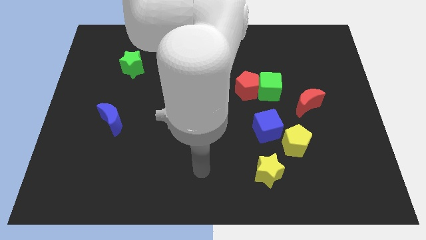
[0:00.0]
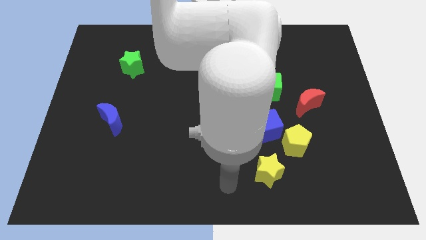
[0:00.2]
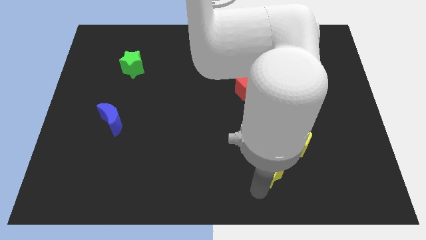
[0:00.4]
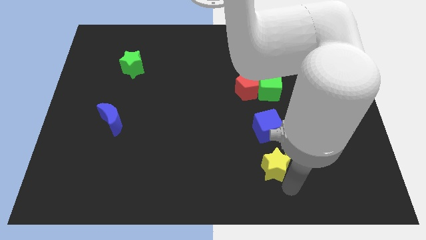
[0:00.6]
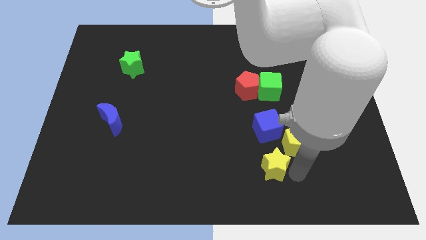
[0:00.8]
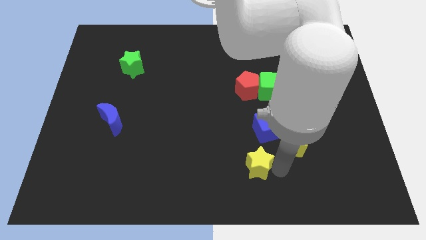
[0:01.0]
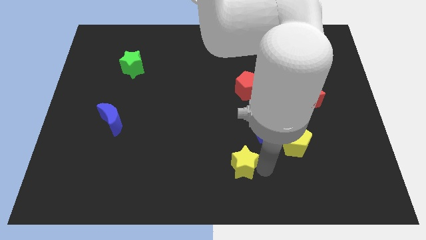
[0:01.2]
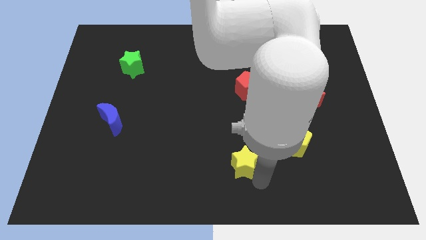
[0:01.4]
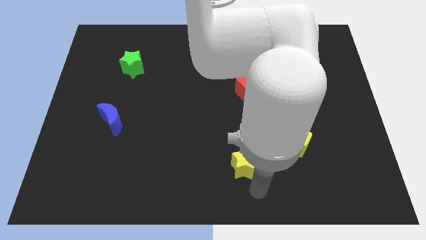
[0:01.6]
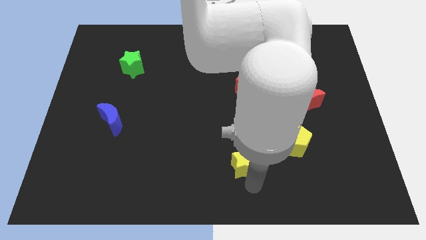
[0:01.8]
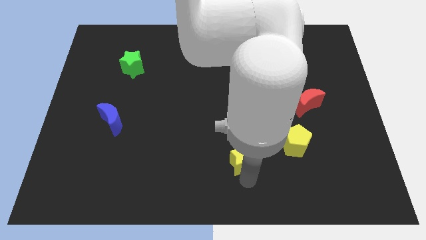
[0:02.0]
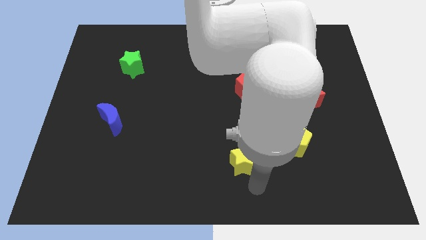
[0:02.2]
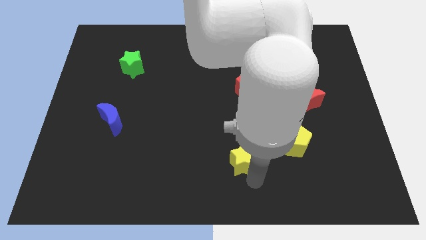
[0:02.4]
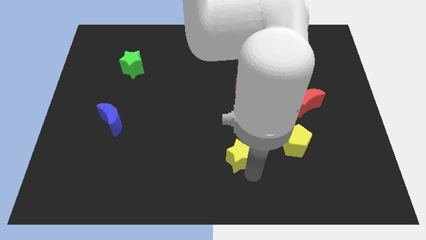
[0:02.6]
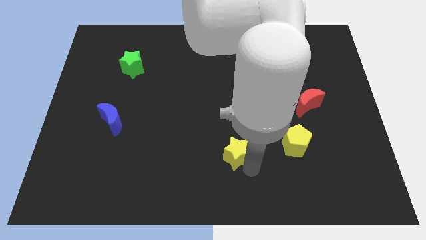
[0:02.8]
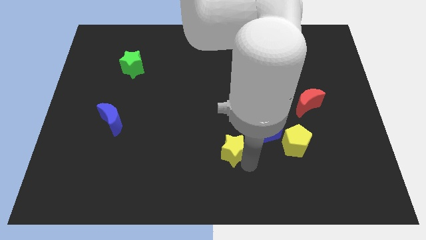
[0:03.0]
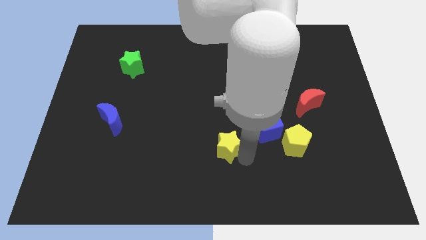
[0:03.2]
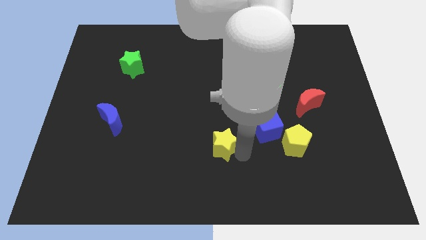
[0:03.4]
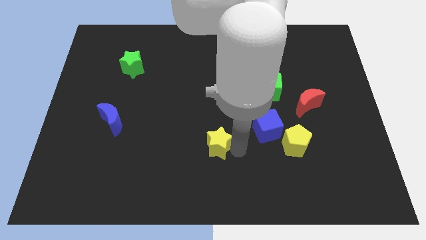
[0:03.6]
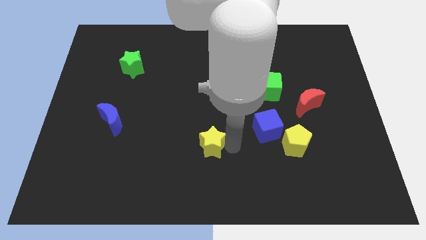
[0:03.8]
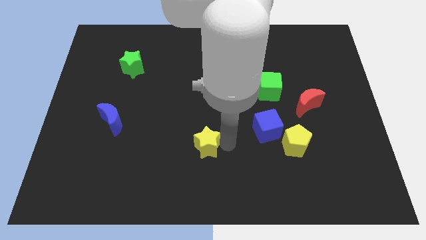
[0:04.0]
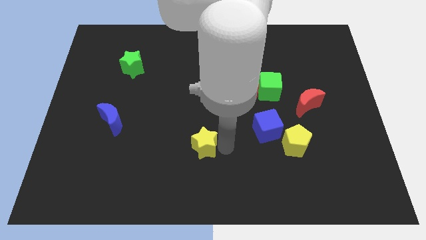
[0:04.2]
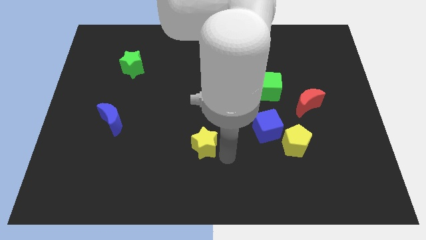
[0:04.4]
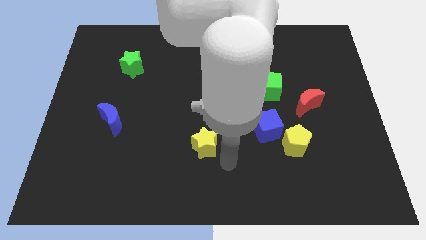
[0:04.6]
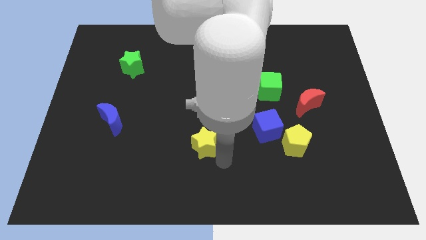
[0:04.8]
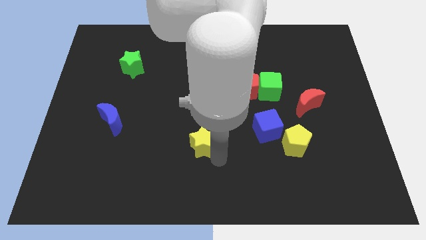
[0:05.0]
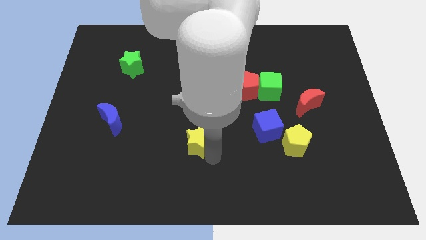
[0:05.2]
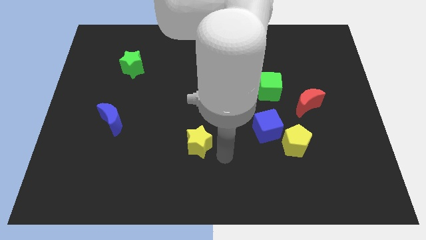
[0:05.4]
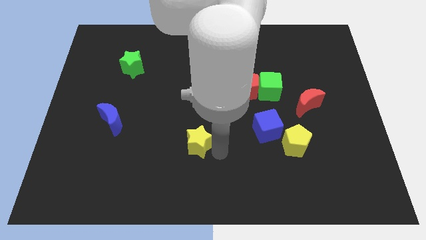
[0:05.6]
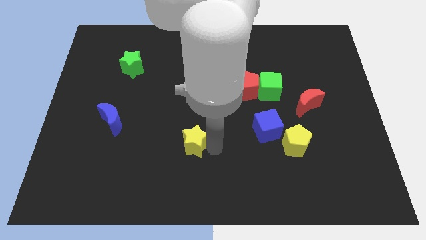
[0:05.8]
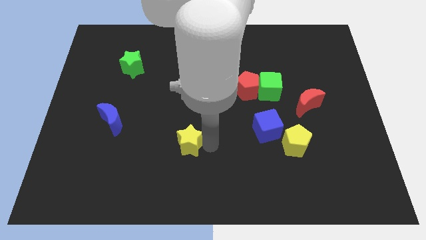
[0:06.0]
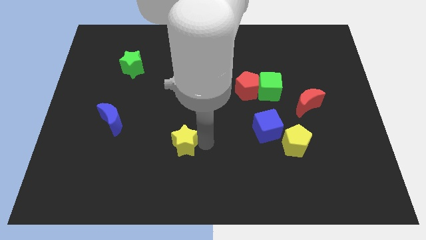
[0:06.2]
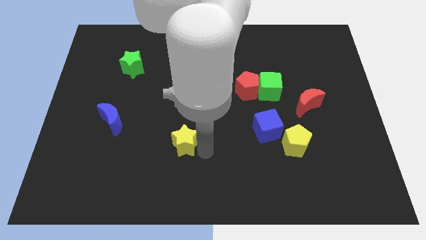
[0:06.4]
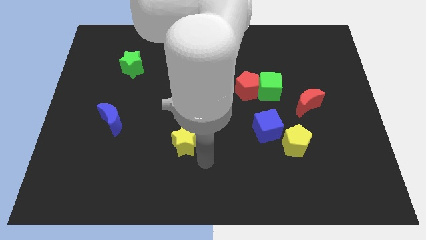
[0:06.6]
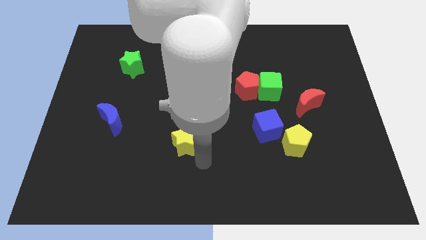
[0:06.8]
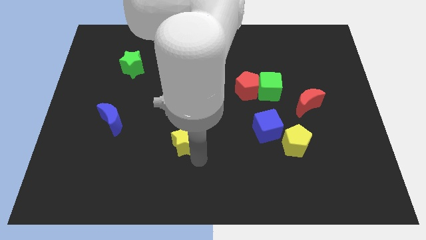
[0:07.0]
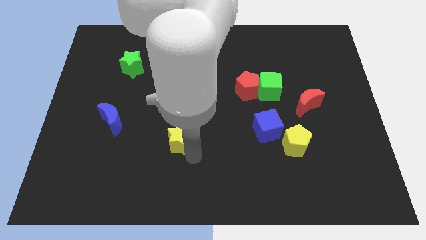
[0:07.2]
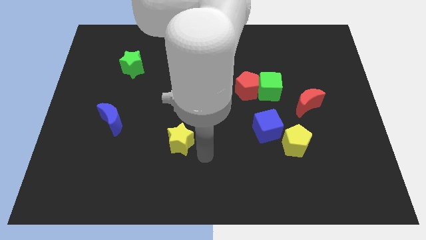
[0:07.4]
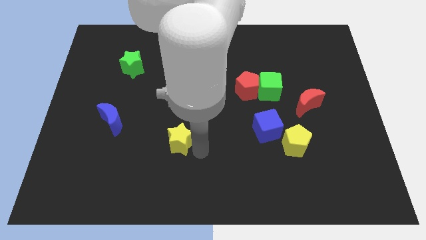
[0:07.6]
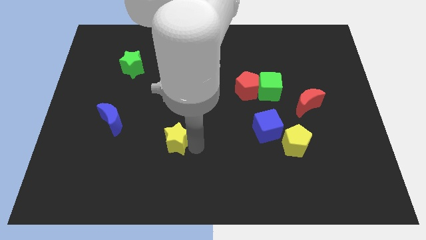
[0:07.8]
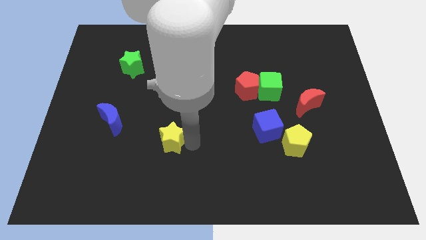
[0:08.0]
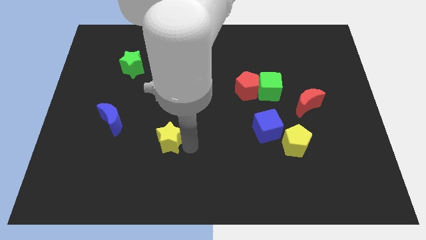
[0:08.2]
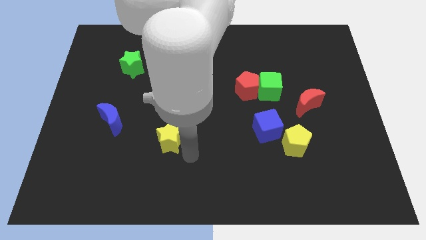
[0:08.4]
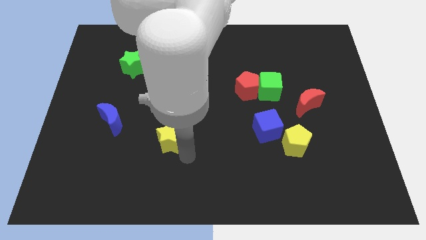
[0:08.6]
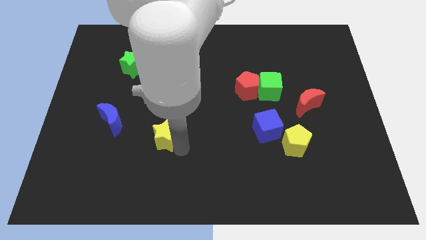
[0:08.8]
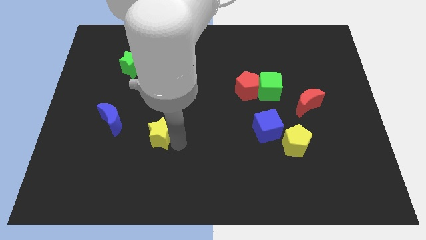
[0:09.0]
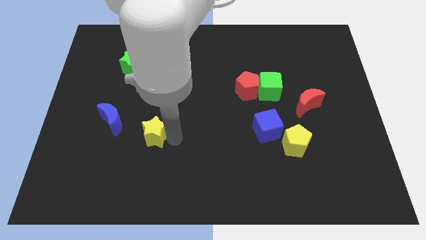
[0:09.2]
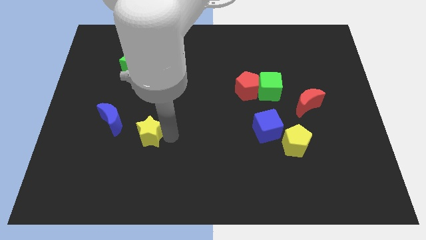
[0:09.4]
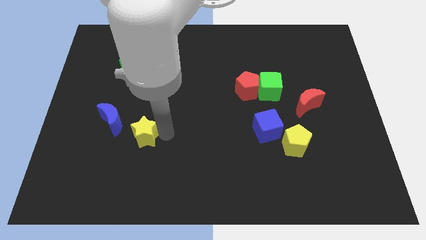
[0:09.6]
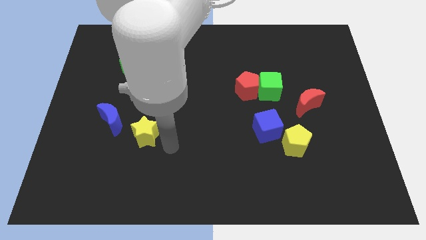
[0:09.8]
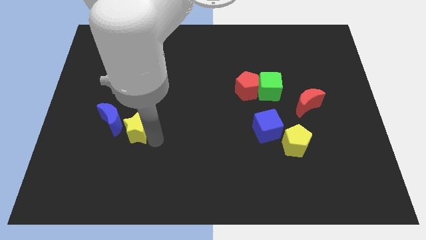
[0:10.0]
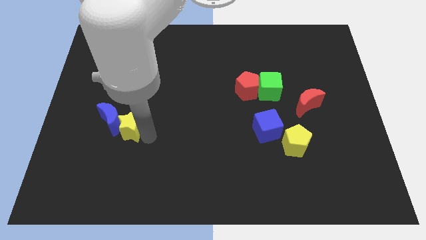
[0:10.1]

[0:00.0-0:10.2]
move the yellow star next to the blue moon

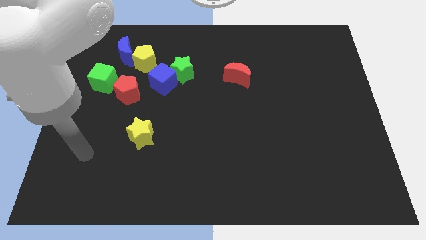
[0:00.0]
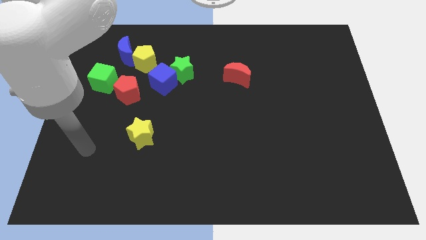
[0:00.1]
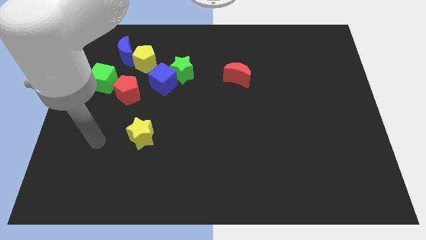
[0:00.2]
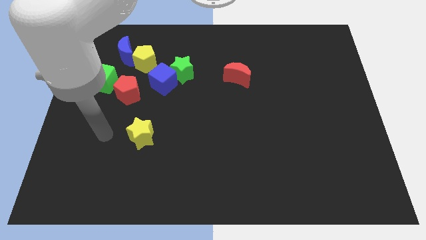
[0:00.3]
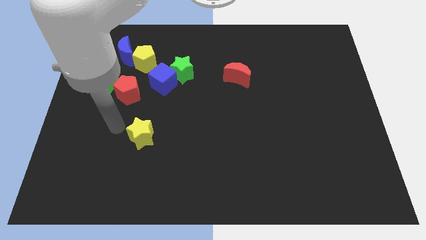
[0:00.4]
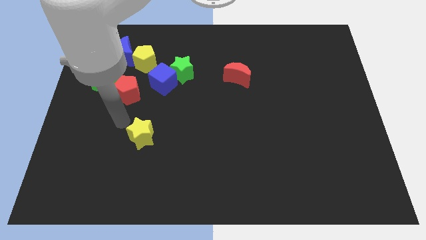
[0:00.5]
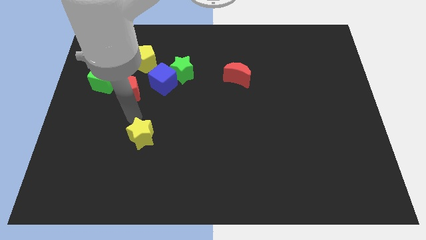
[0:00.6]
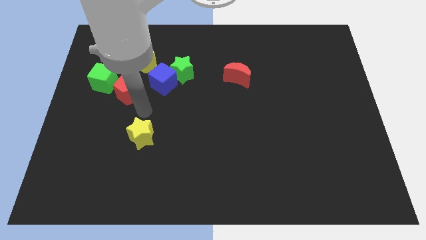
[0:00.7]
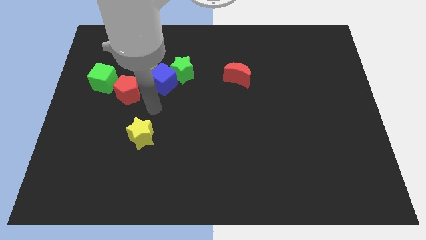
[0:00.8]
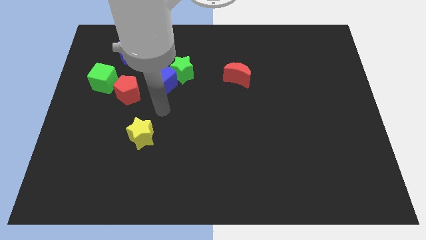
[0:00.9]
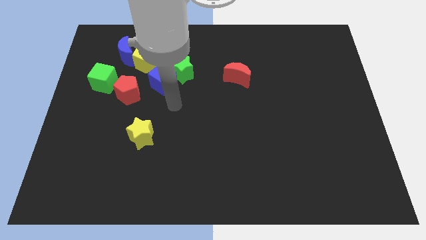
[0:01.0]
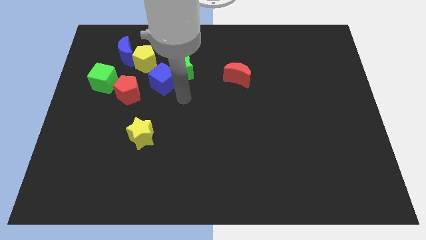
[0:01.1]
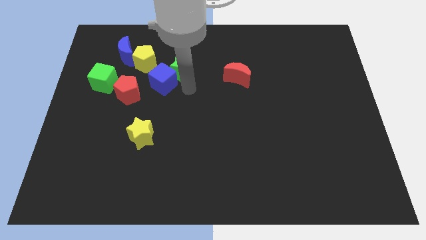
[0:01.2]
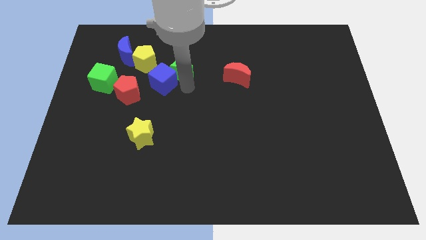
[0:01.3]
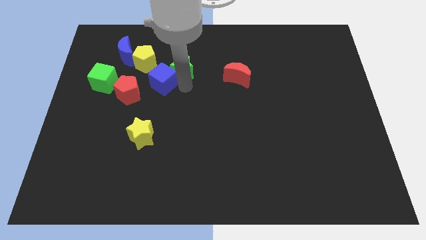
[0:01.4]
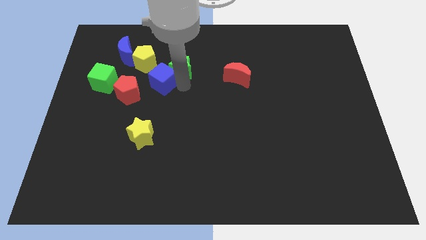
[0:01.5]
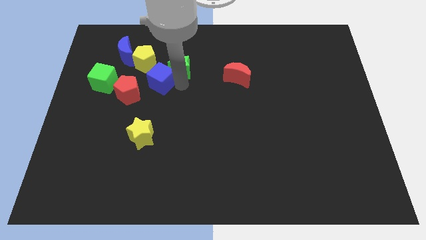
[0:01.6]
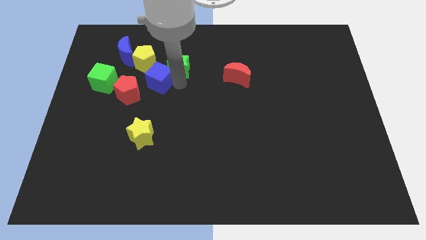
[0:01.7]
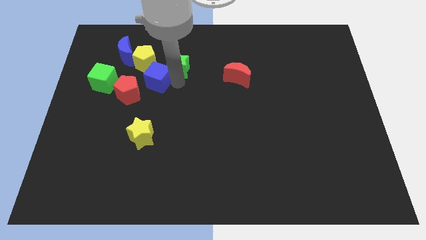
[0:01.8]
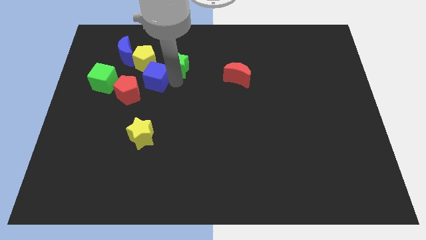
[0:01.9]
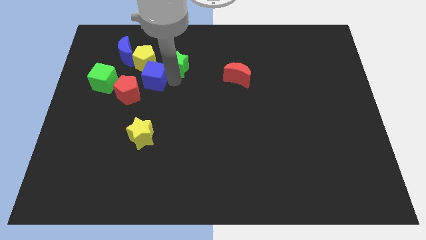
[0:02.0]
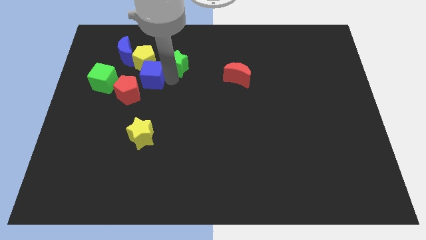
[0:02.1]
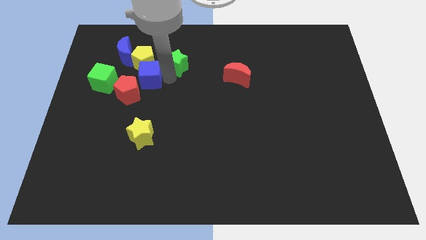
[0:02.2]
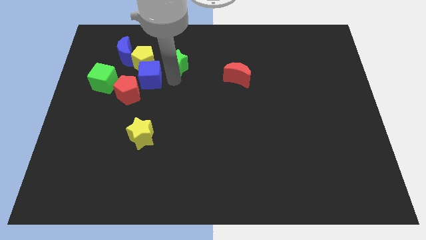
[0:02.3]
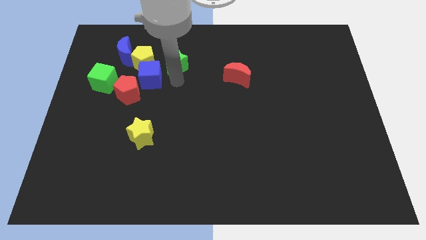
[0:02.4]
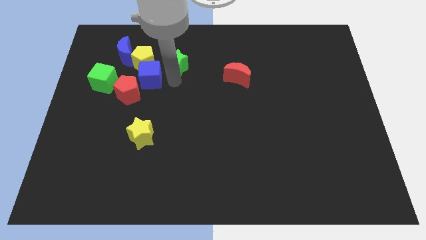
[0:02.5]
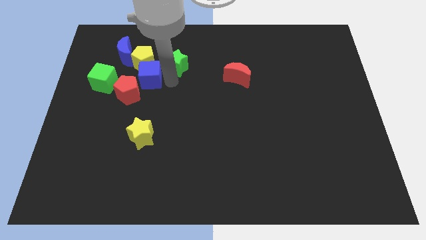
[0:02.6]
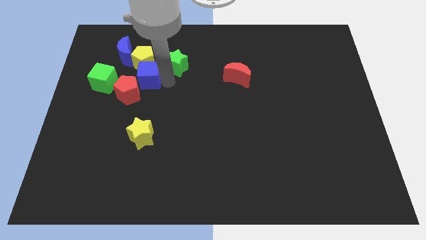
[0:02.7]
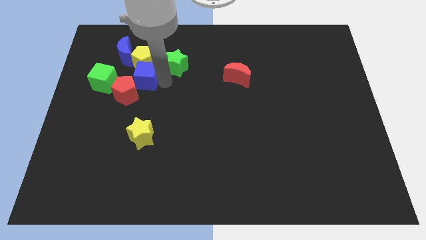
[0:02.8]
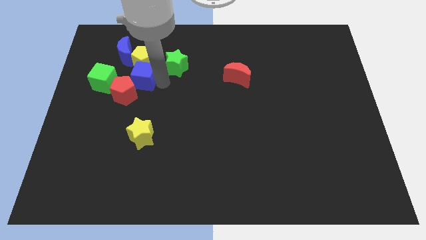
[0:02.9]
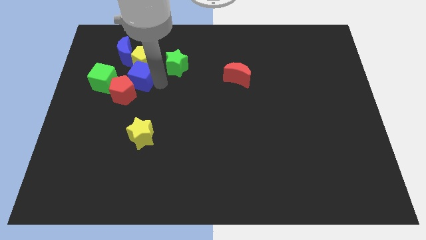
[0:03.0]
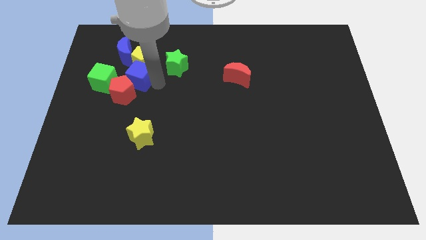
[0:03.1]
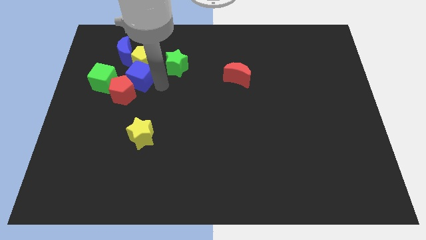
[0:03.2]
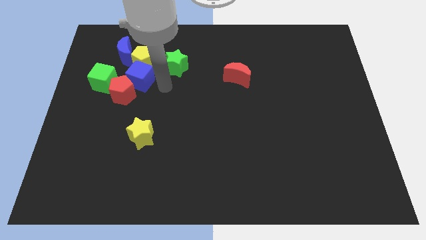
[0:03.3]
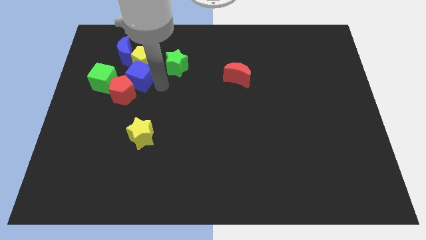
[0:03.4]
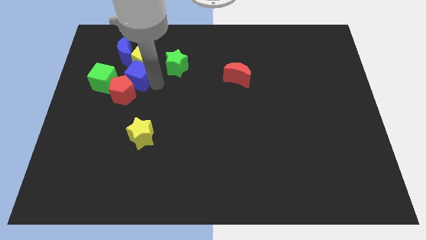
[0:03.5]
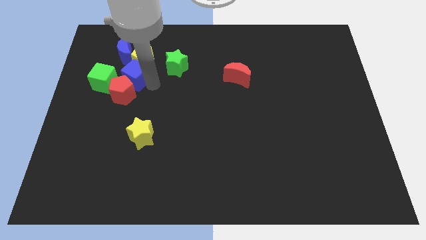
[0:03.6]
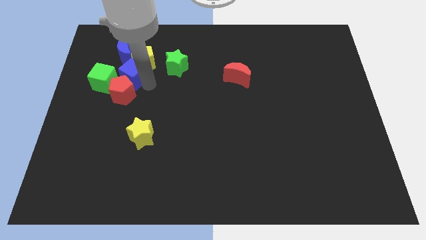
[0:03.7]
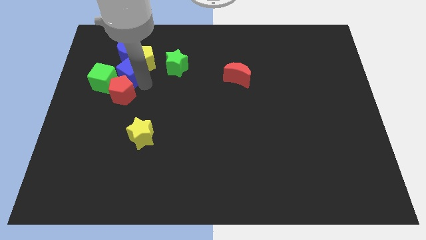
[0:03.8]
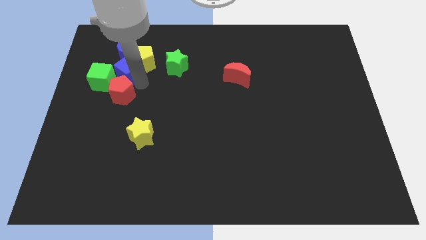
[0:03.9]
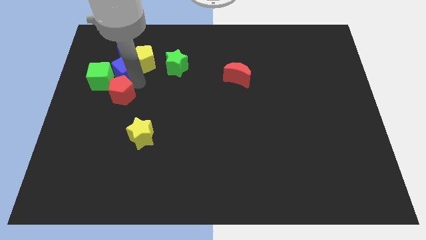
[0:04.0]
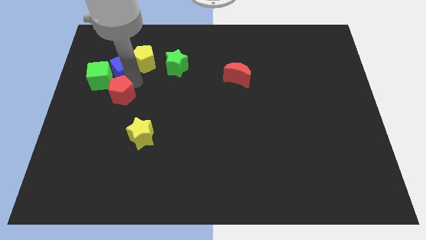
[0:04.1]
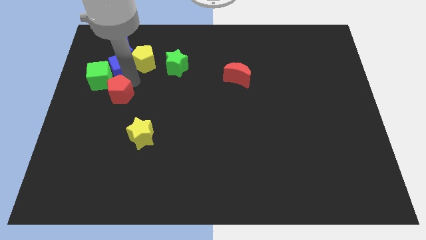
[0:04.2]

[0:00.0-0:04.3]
slide the blue cube next to the blue moon
